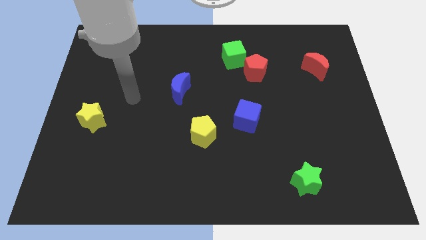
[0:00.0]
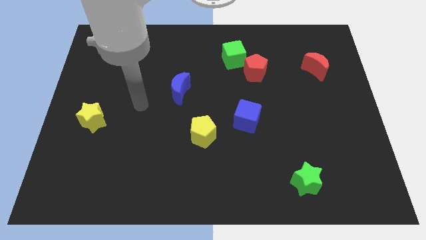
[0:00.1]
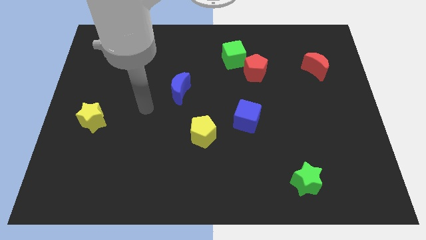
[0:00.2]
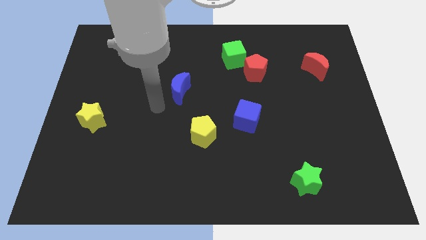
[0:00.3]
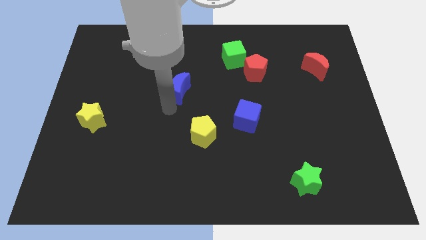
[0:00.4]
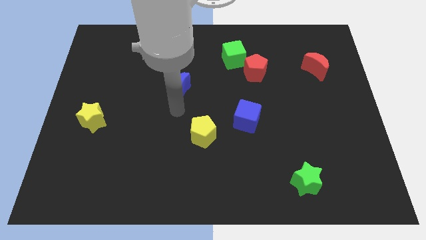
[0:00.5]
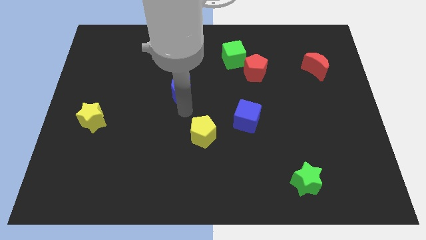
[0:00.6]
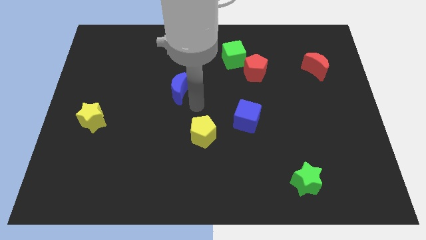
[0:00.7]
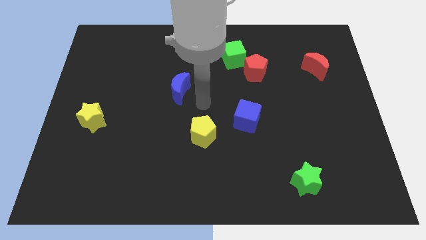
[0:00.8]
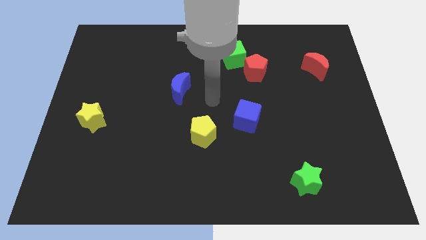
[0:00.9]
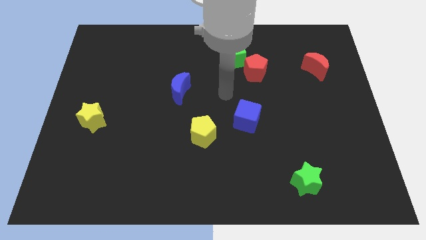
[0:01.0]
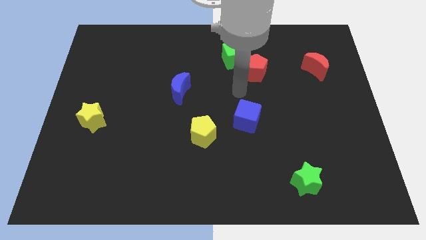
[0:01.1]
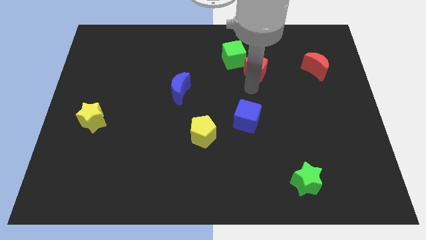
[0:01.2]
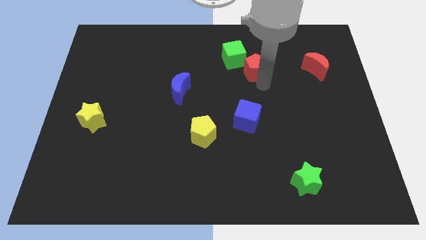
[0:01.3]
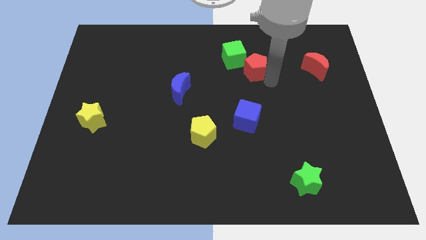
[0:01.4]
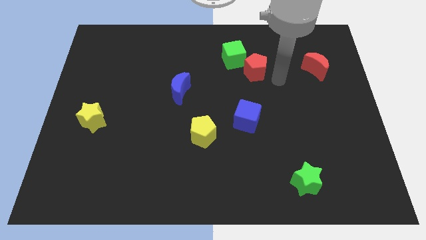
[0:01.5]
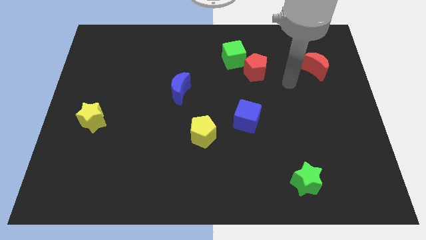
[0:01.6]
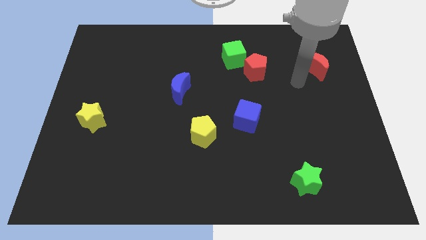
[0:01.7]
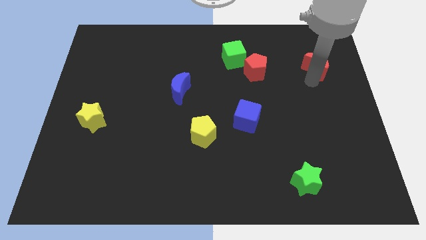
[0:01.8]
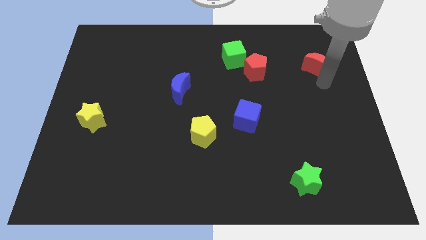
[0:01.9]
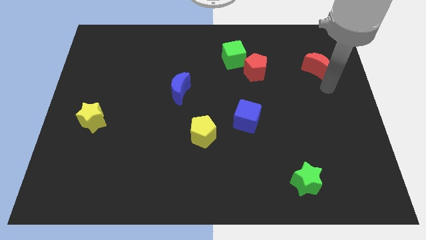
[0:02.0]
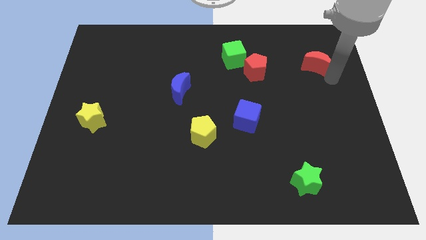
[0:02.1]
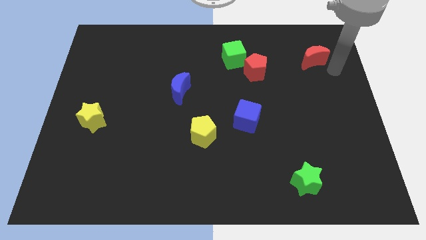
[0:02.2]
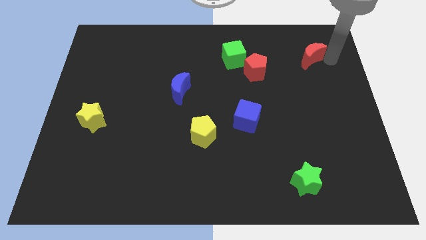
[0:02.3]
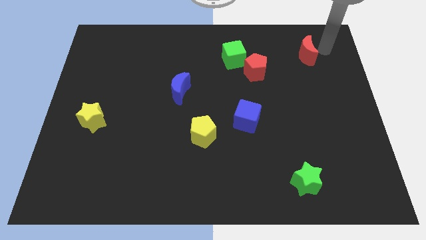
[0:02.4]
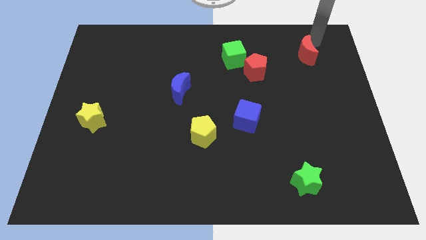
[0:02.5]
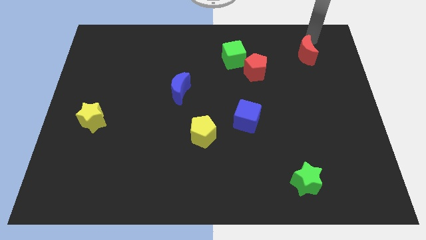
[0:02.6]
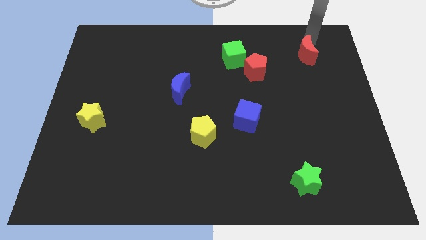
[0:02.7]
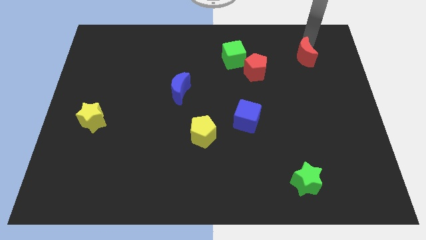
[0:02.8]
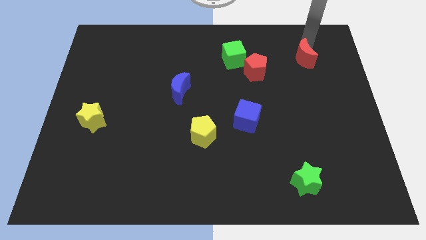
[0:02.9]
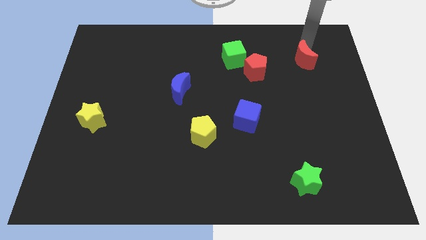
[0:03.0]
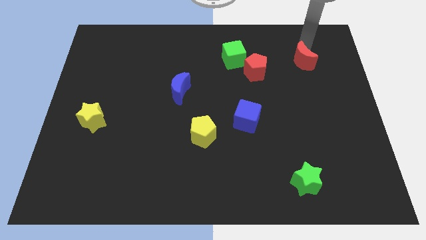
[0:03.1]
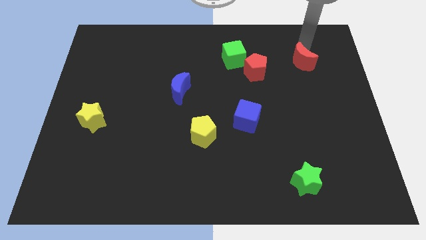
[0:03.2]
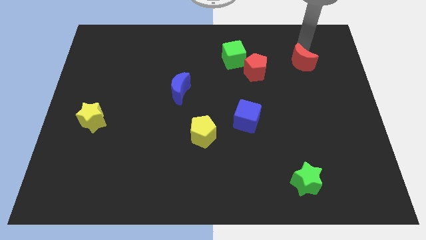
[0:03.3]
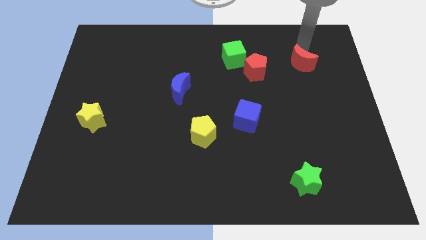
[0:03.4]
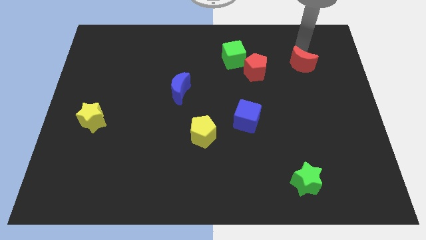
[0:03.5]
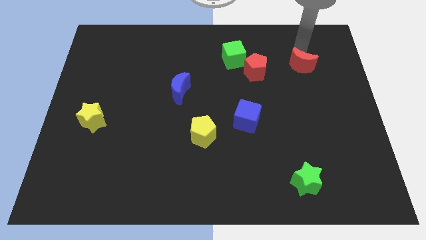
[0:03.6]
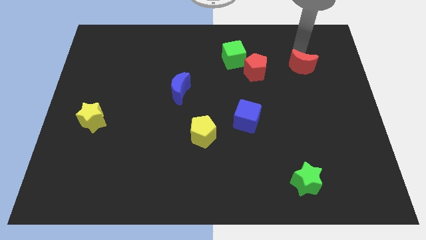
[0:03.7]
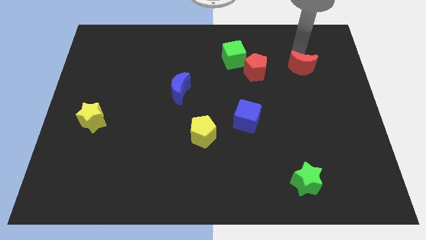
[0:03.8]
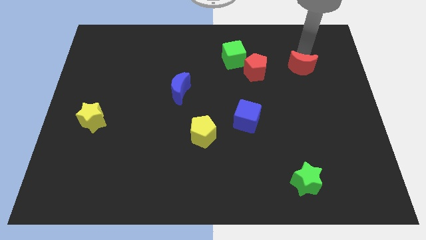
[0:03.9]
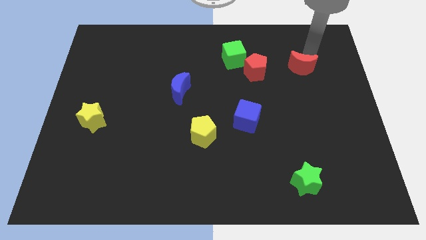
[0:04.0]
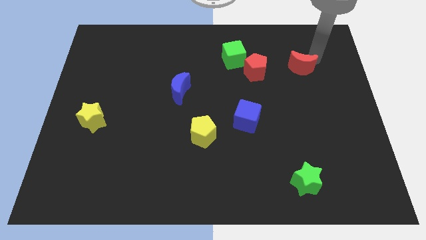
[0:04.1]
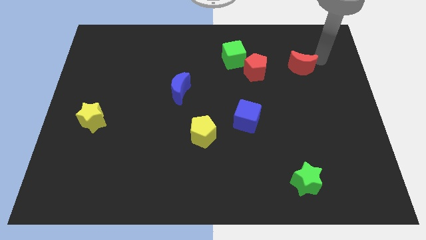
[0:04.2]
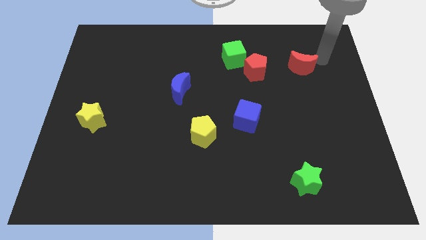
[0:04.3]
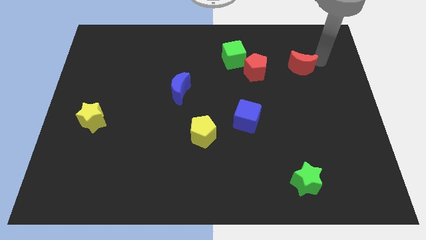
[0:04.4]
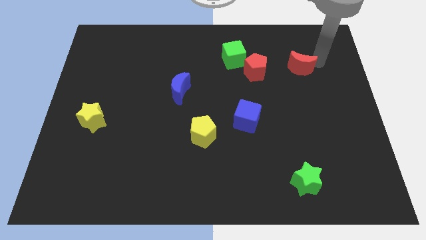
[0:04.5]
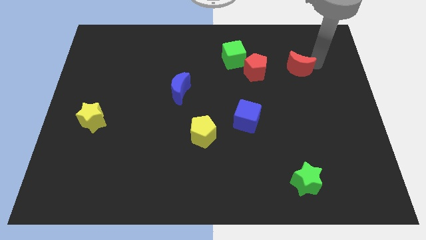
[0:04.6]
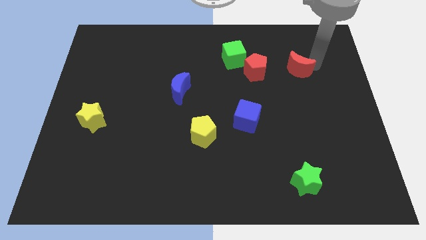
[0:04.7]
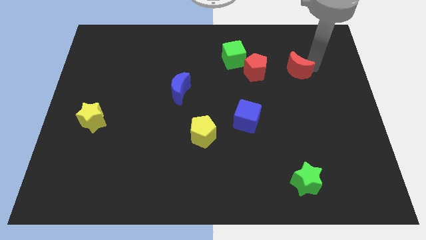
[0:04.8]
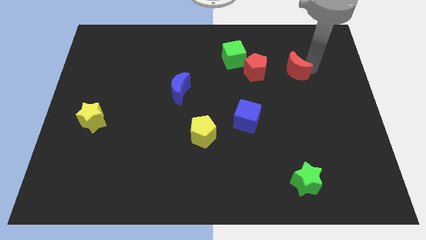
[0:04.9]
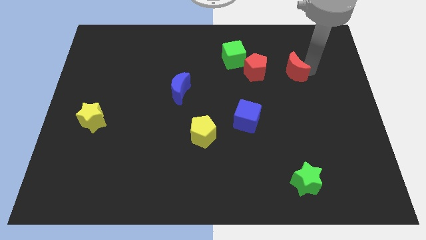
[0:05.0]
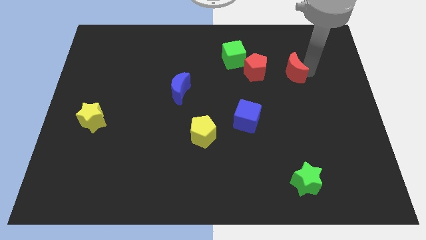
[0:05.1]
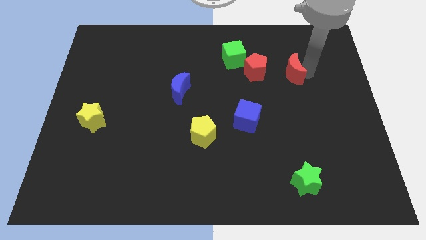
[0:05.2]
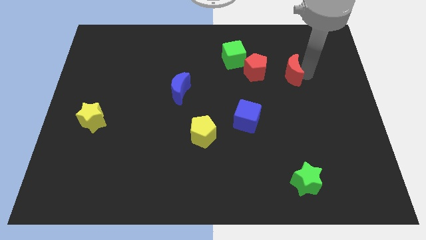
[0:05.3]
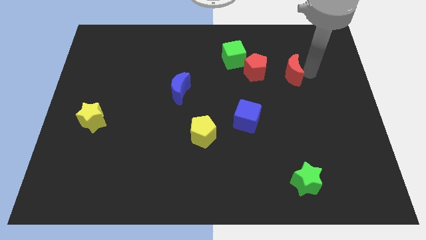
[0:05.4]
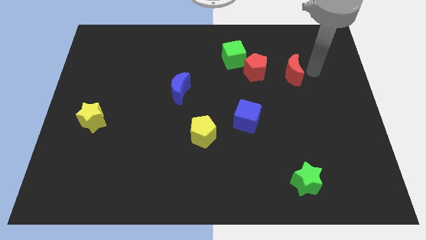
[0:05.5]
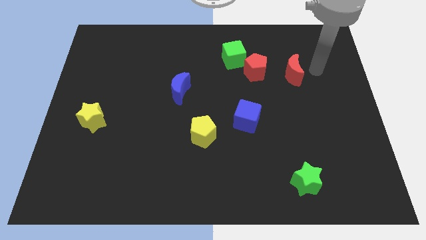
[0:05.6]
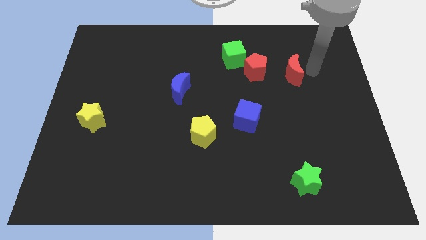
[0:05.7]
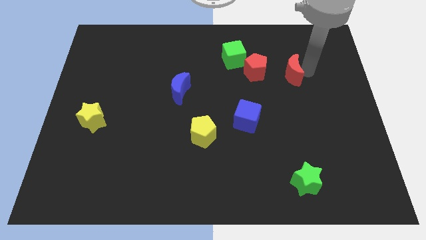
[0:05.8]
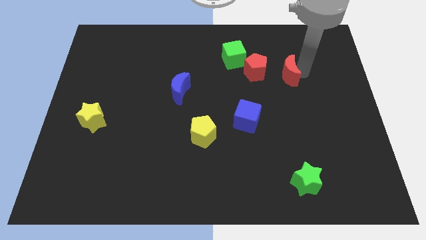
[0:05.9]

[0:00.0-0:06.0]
move the red moon slightly to the left

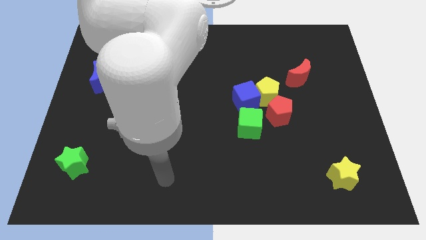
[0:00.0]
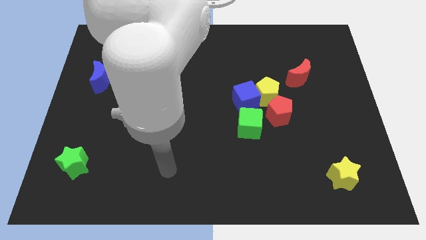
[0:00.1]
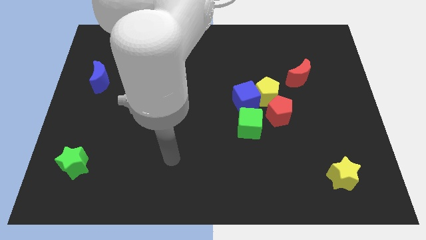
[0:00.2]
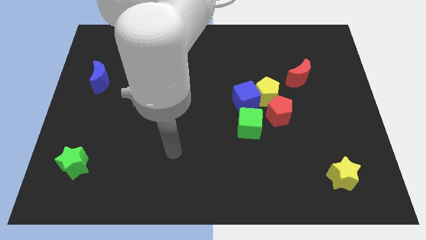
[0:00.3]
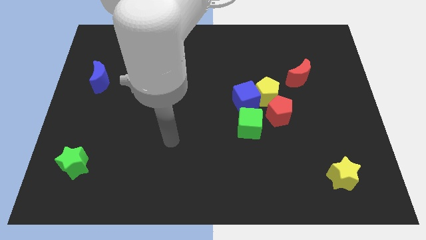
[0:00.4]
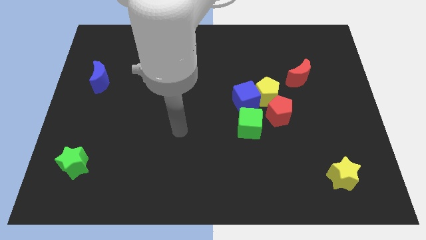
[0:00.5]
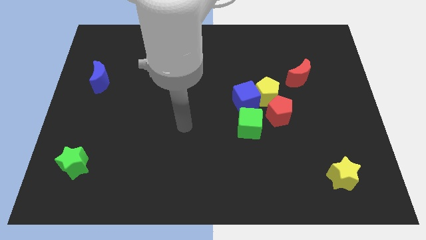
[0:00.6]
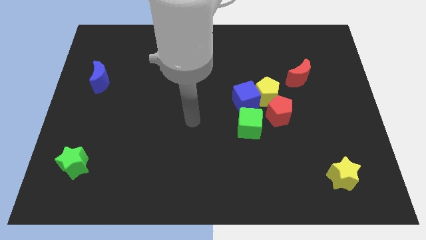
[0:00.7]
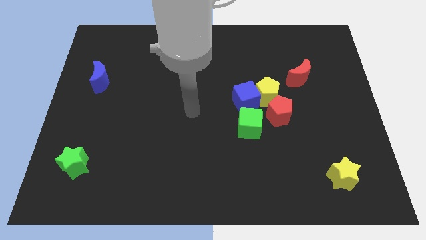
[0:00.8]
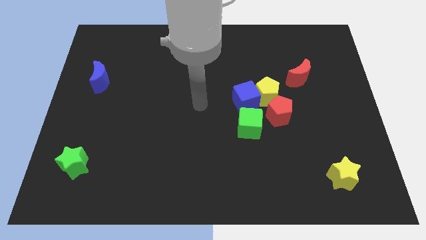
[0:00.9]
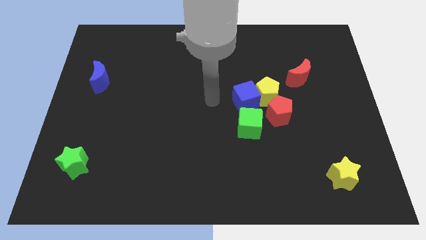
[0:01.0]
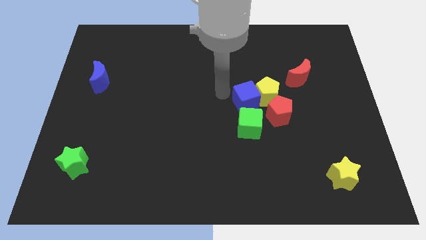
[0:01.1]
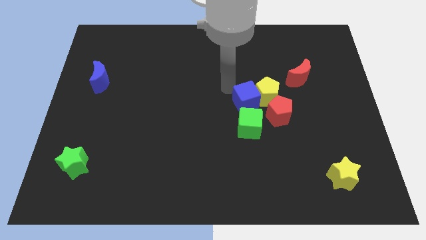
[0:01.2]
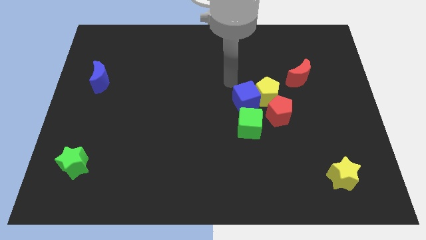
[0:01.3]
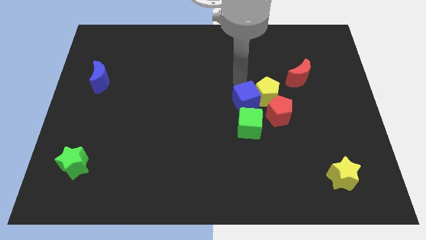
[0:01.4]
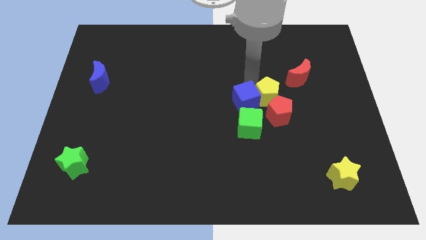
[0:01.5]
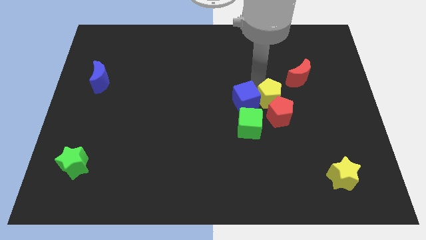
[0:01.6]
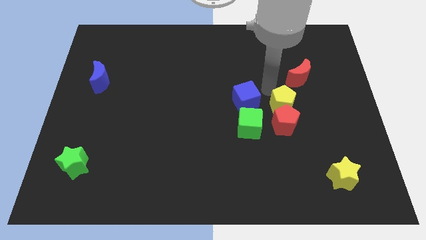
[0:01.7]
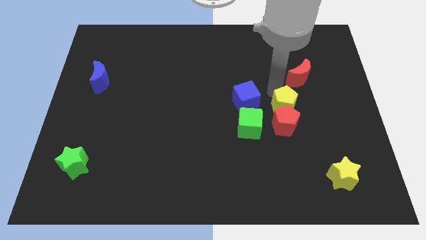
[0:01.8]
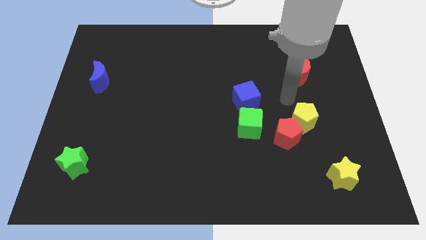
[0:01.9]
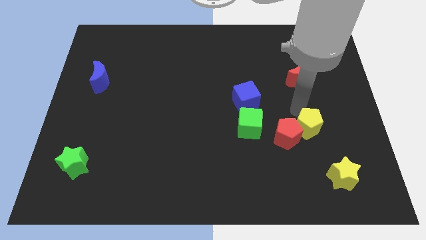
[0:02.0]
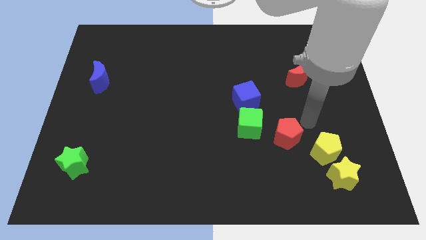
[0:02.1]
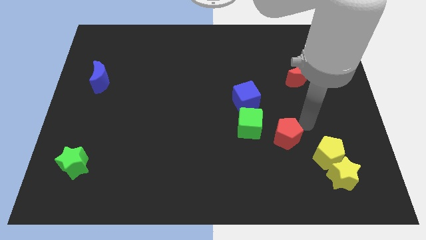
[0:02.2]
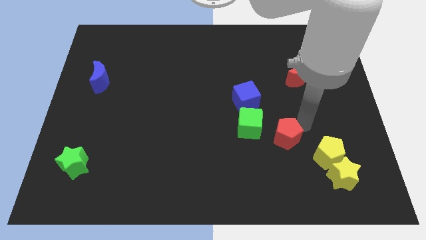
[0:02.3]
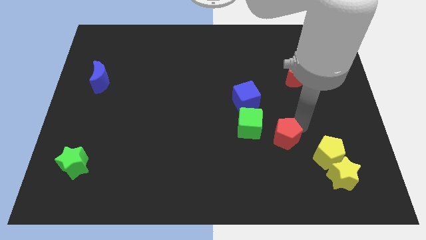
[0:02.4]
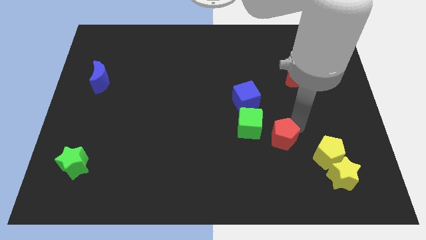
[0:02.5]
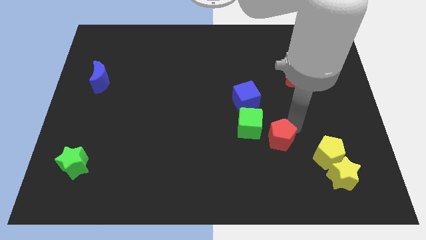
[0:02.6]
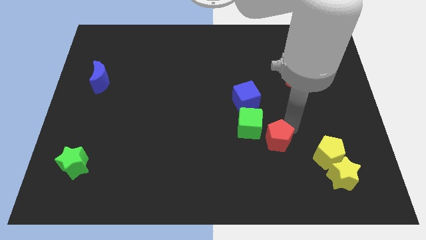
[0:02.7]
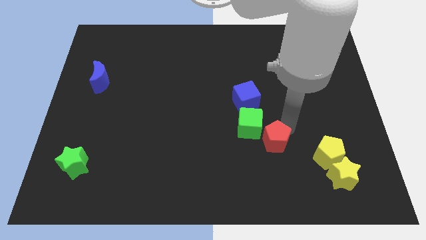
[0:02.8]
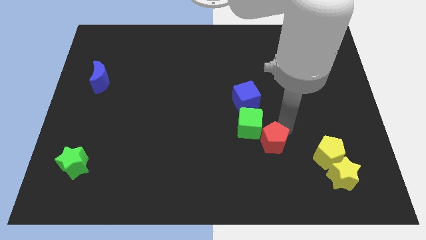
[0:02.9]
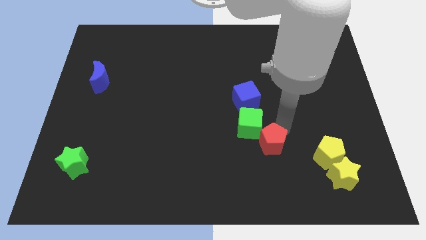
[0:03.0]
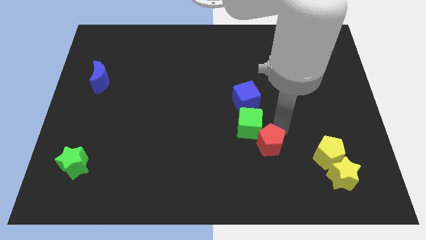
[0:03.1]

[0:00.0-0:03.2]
push the red pentagon a little downwards and left
